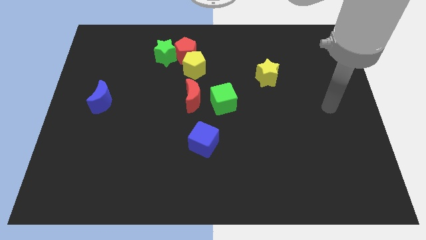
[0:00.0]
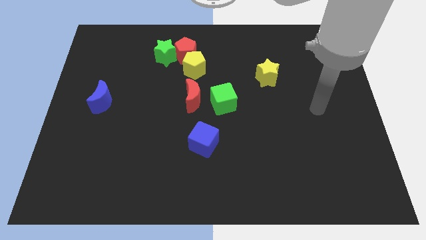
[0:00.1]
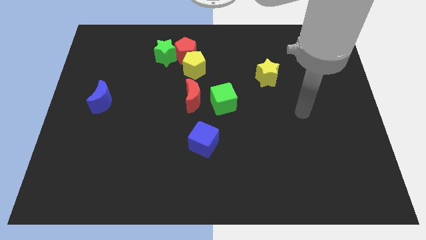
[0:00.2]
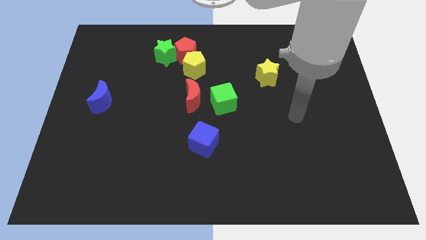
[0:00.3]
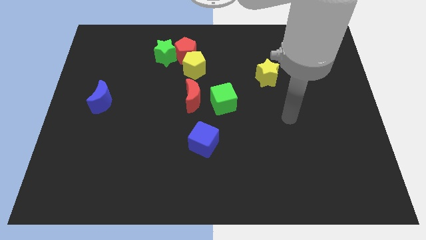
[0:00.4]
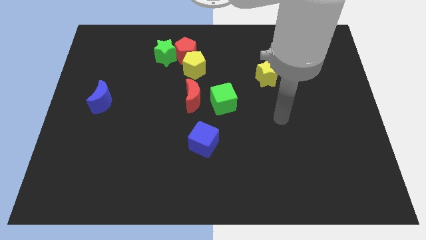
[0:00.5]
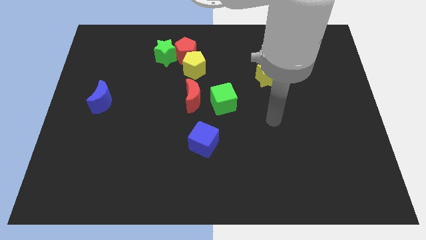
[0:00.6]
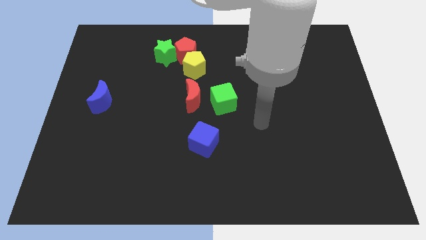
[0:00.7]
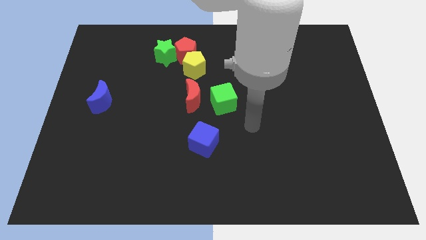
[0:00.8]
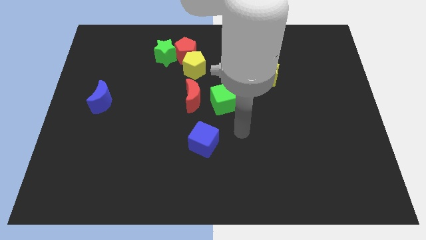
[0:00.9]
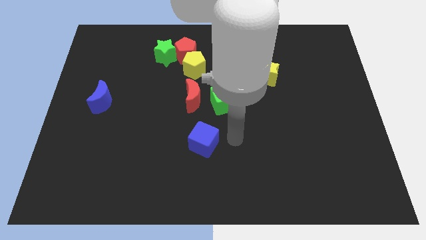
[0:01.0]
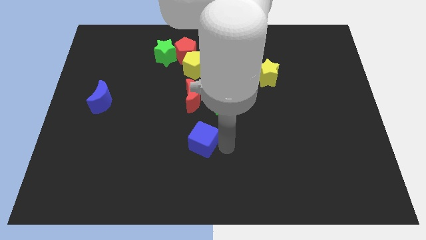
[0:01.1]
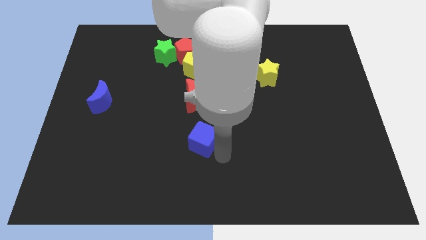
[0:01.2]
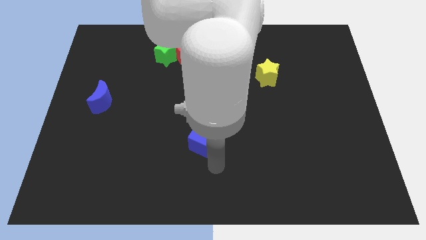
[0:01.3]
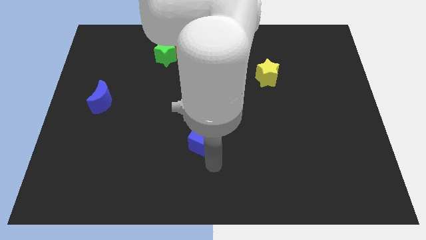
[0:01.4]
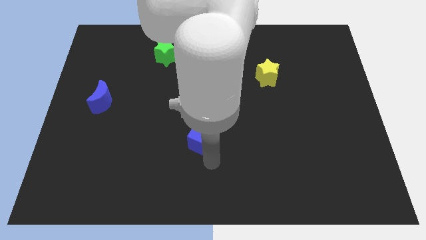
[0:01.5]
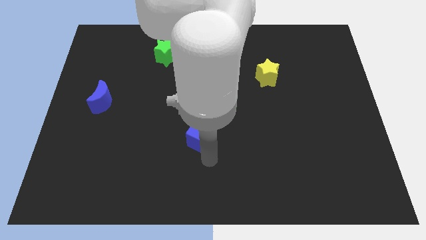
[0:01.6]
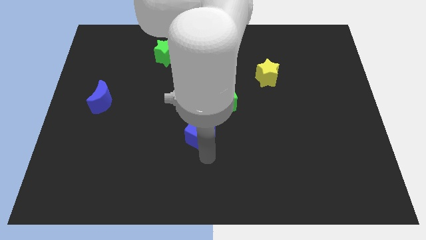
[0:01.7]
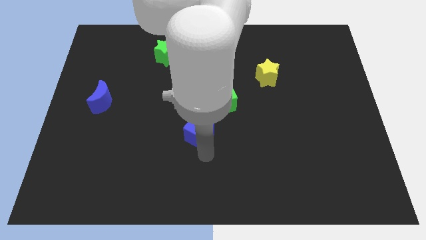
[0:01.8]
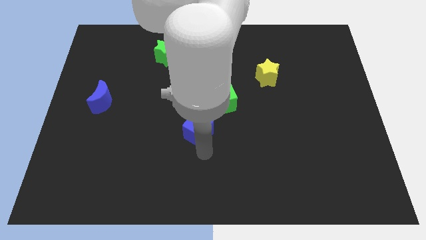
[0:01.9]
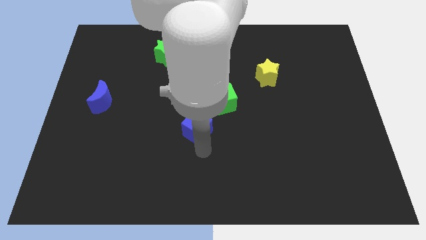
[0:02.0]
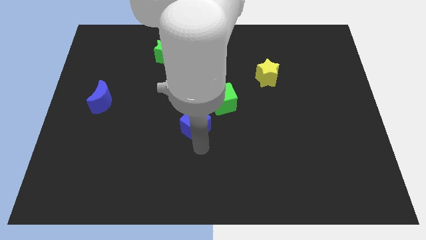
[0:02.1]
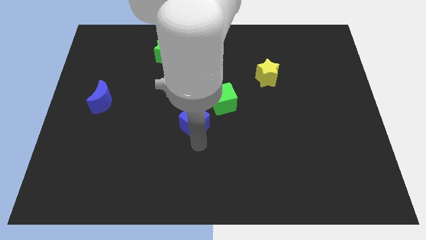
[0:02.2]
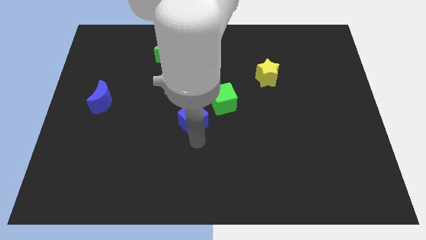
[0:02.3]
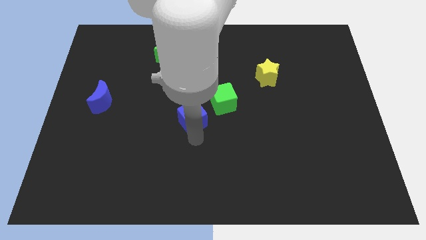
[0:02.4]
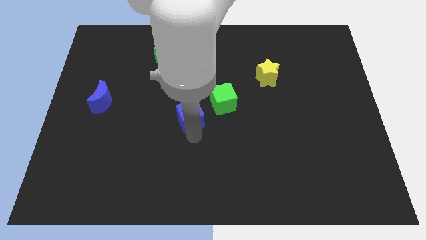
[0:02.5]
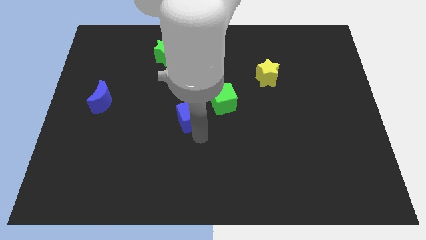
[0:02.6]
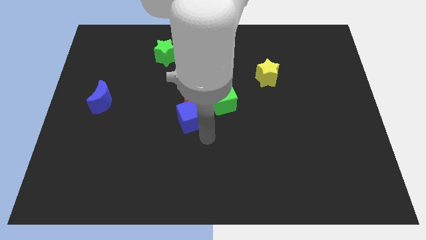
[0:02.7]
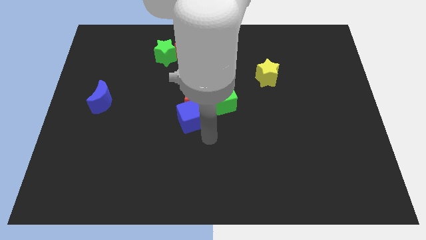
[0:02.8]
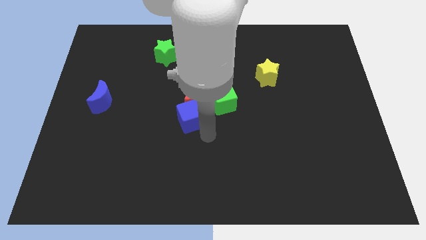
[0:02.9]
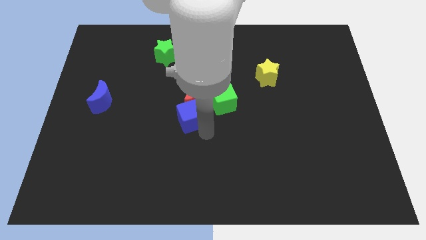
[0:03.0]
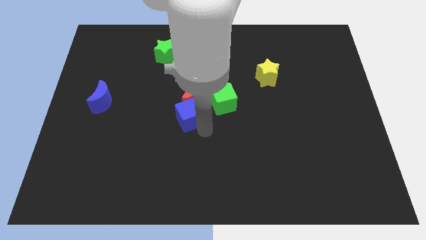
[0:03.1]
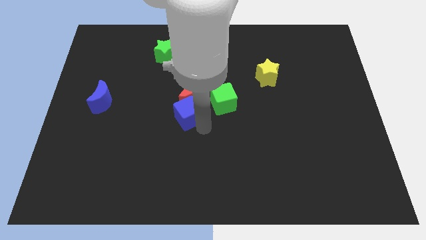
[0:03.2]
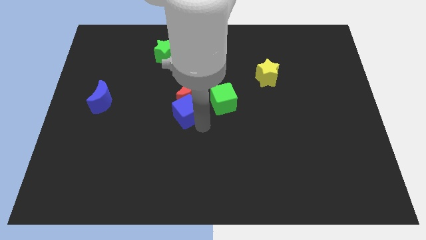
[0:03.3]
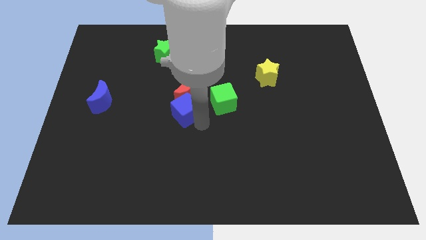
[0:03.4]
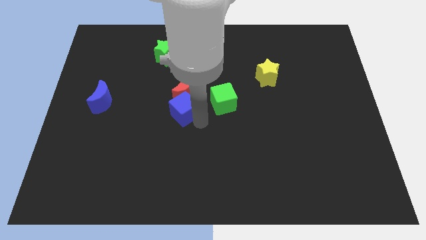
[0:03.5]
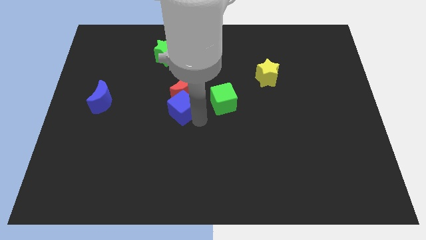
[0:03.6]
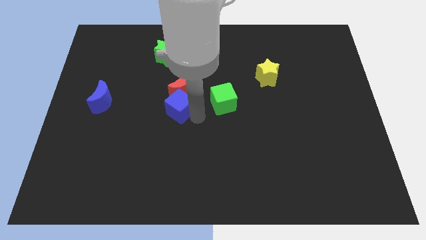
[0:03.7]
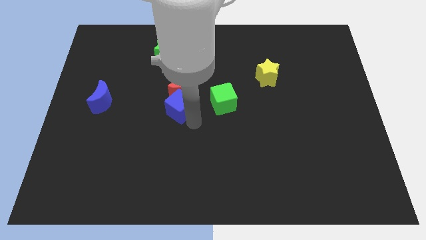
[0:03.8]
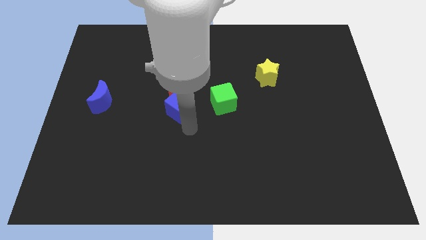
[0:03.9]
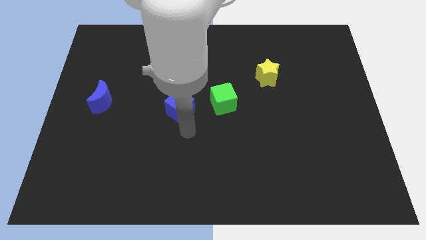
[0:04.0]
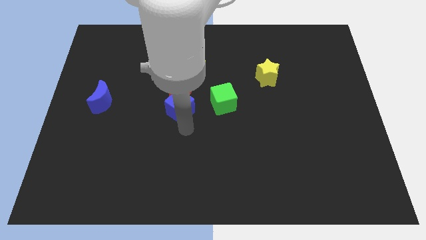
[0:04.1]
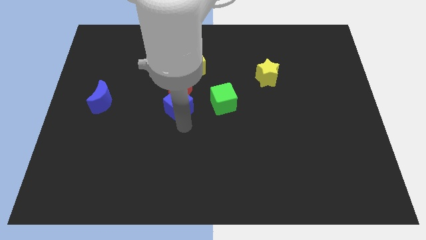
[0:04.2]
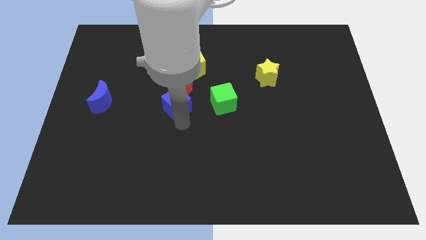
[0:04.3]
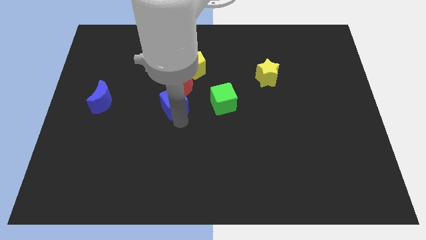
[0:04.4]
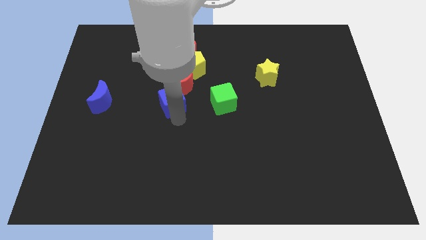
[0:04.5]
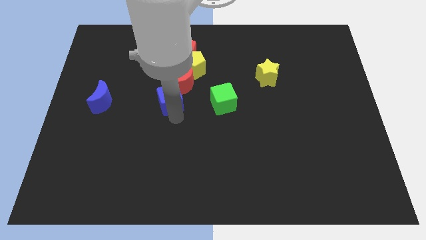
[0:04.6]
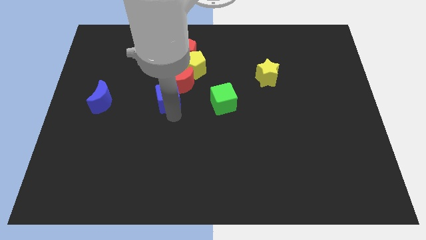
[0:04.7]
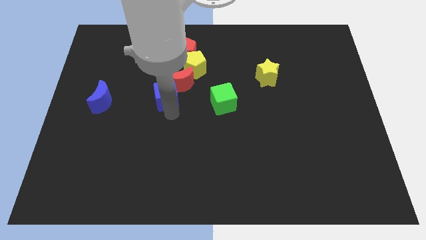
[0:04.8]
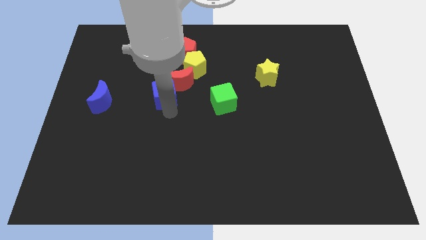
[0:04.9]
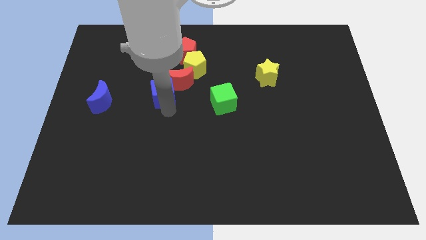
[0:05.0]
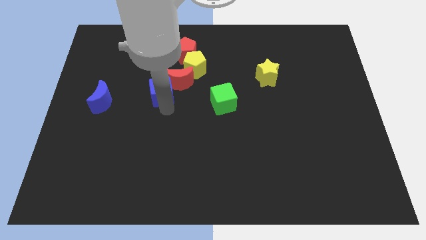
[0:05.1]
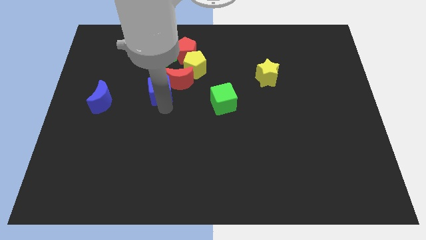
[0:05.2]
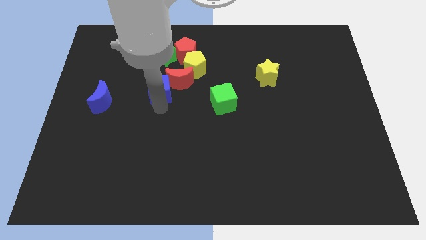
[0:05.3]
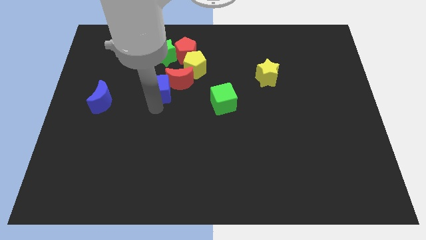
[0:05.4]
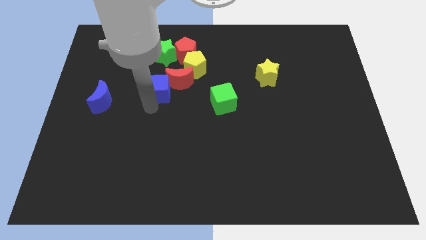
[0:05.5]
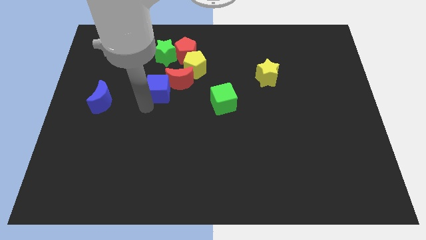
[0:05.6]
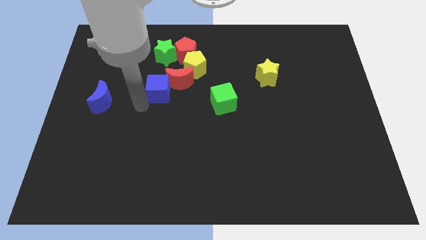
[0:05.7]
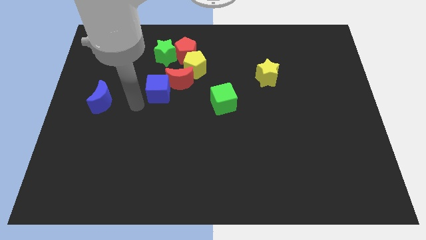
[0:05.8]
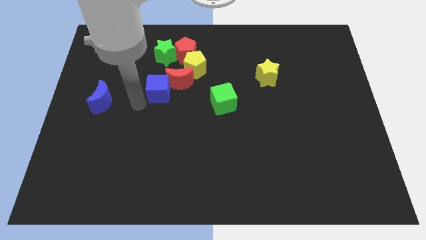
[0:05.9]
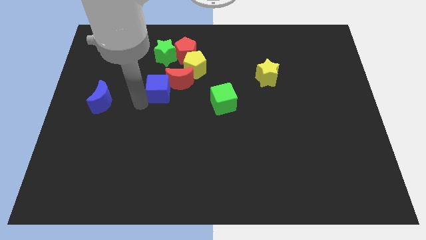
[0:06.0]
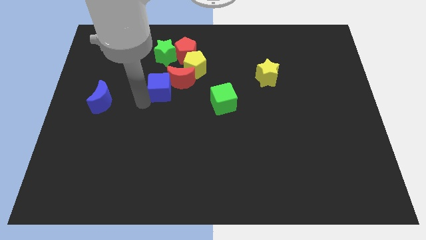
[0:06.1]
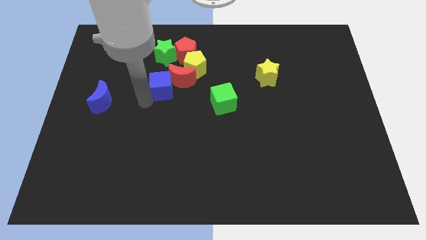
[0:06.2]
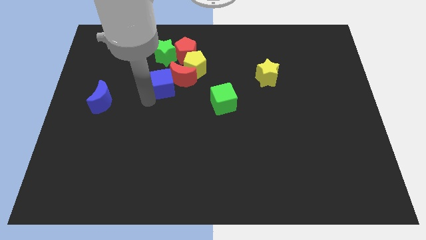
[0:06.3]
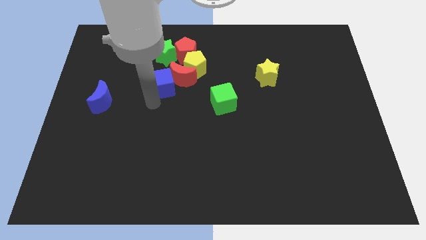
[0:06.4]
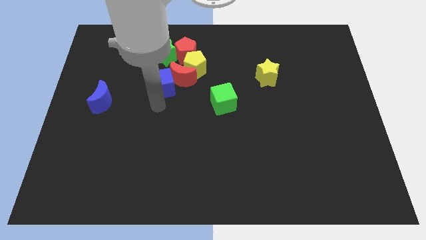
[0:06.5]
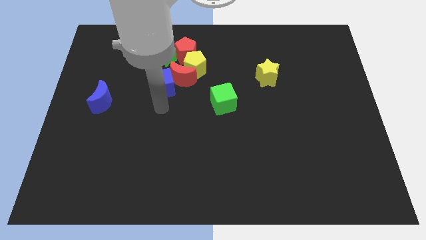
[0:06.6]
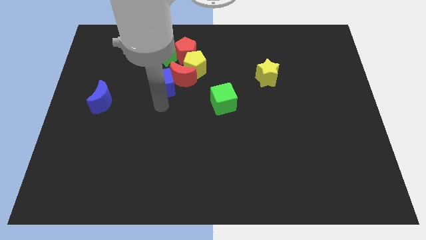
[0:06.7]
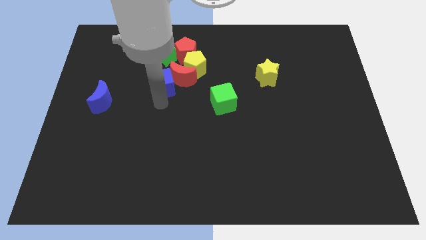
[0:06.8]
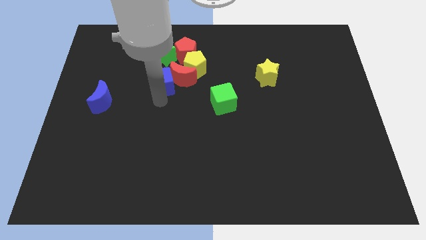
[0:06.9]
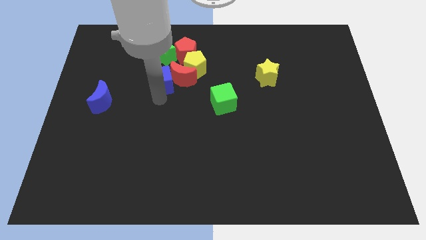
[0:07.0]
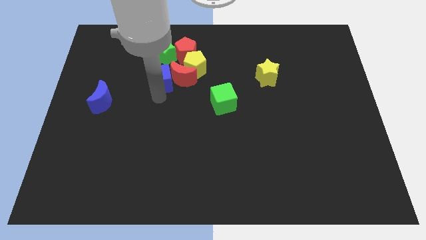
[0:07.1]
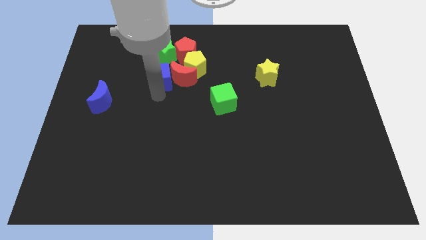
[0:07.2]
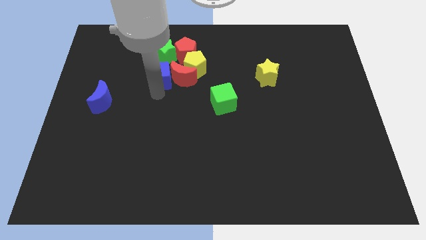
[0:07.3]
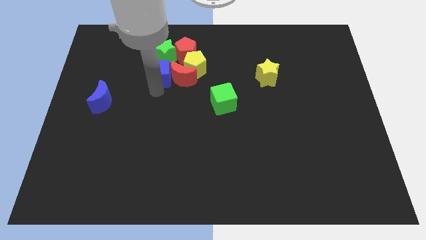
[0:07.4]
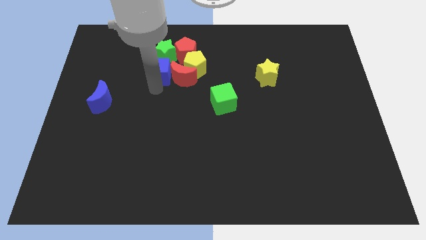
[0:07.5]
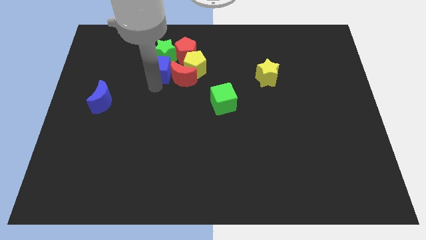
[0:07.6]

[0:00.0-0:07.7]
slide the blue cube close to the green star

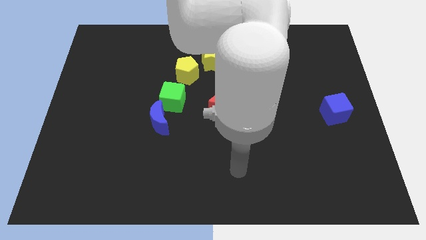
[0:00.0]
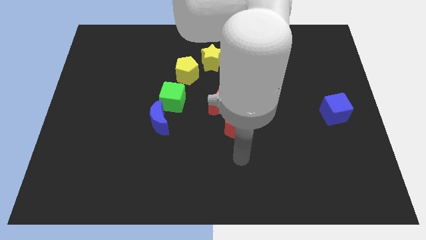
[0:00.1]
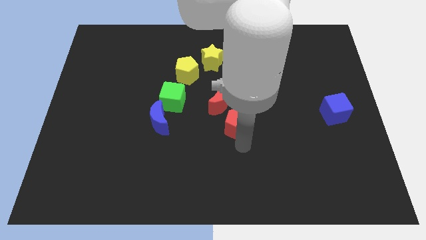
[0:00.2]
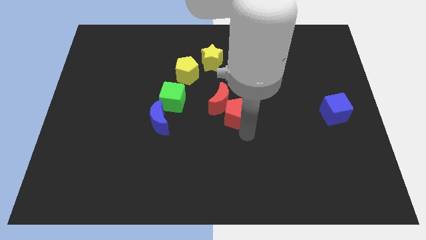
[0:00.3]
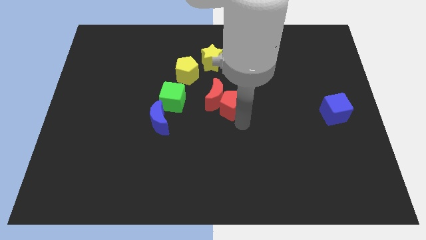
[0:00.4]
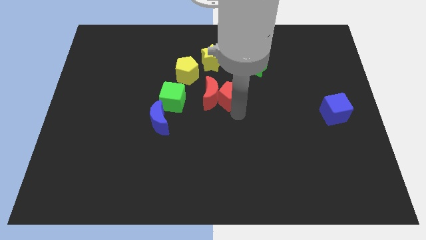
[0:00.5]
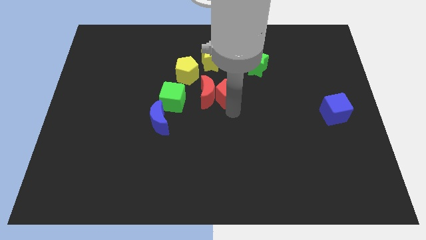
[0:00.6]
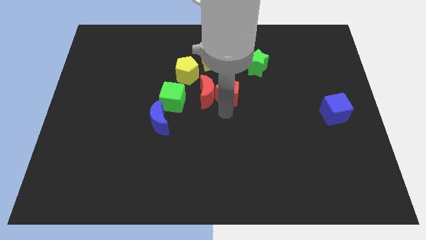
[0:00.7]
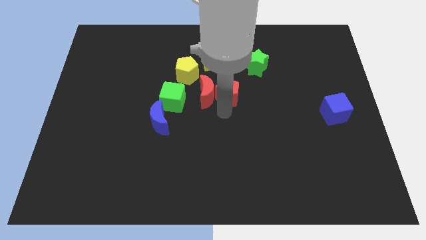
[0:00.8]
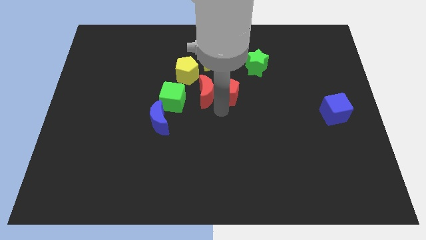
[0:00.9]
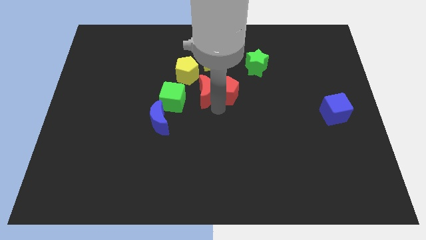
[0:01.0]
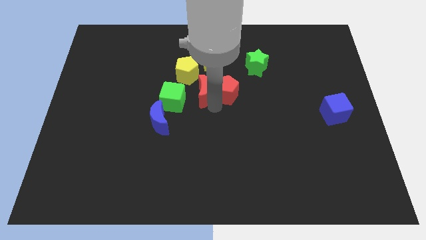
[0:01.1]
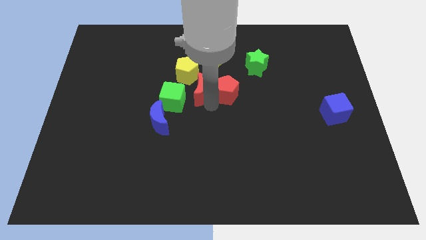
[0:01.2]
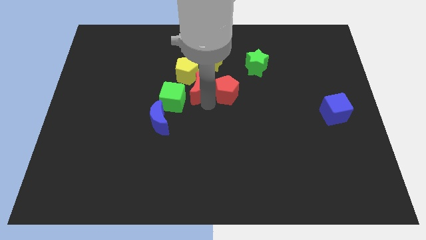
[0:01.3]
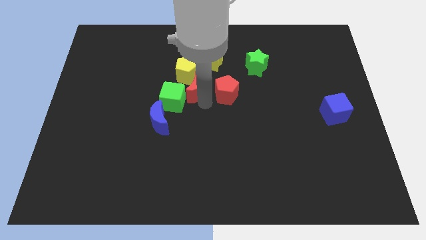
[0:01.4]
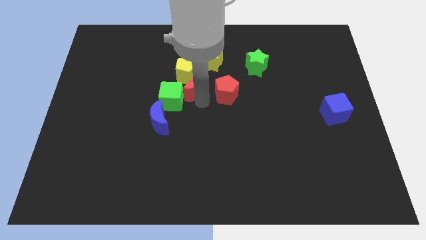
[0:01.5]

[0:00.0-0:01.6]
put the red moon close to the yellow pentagon
